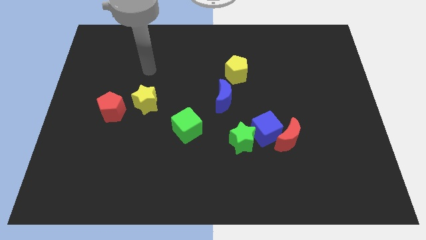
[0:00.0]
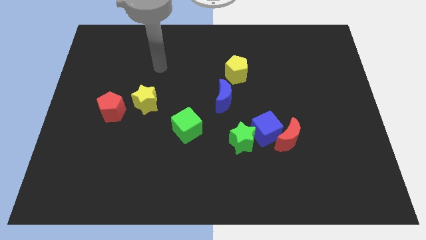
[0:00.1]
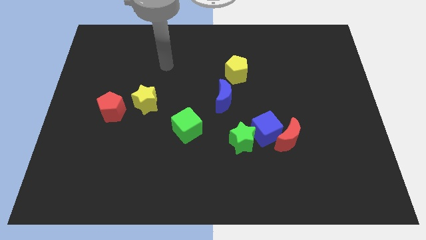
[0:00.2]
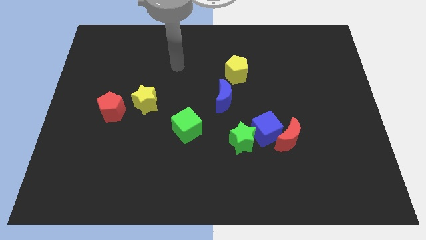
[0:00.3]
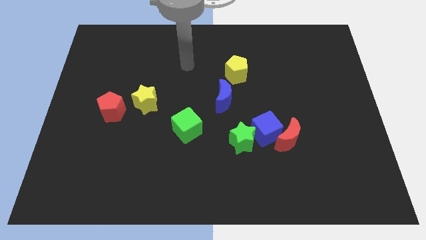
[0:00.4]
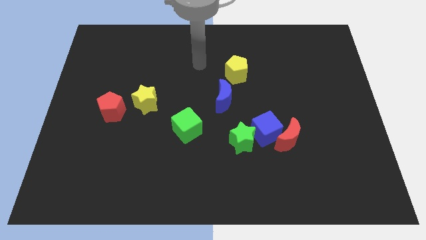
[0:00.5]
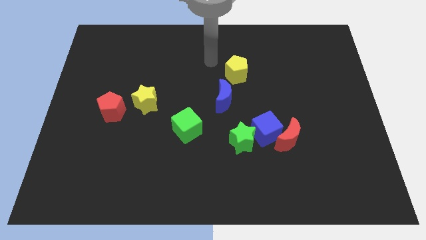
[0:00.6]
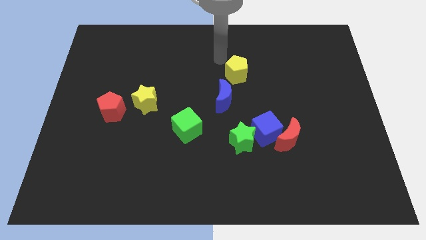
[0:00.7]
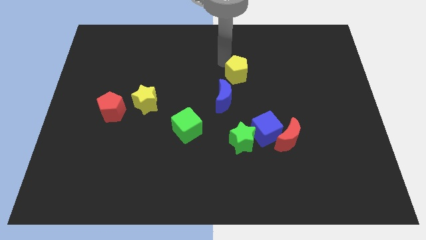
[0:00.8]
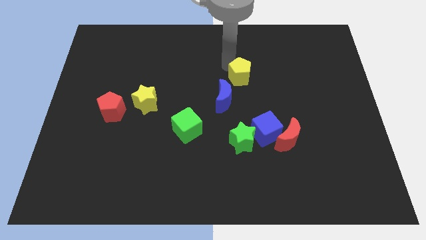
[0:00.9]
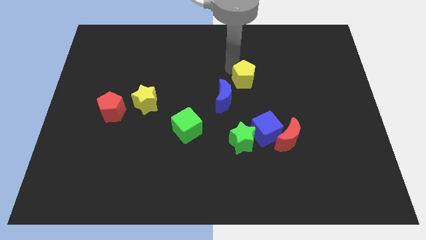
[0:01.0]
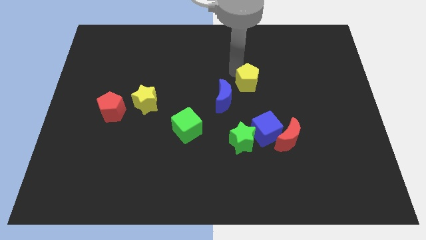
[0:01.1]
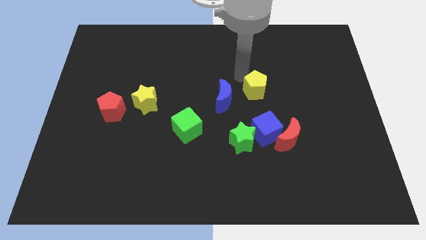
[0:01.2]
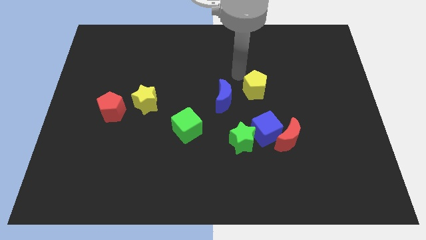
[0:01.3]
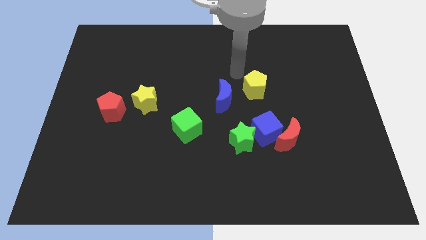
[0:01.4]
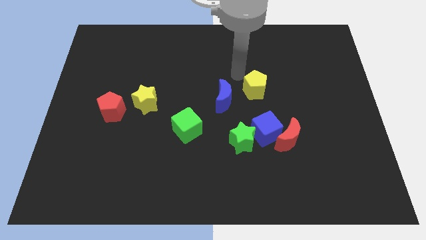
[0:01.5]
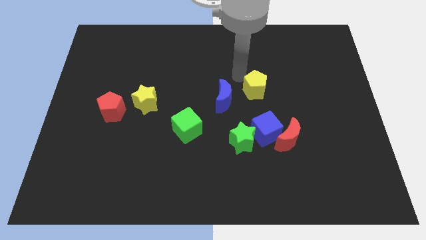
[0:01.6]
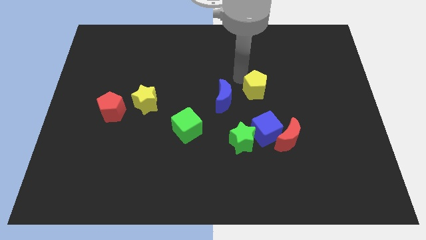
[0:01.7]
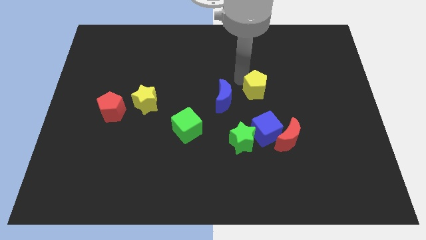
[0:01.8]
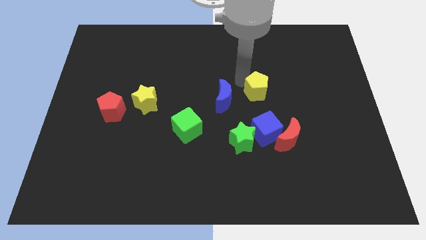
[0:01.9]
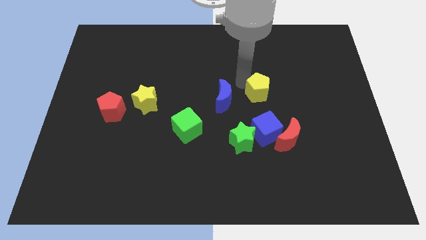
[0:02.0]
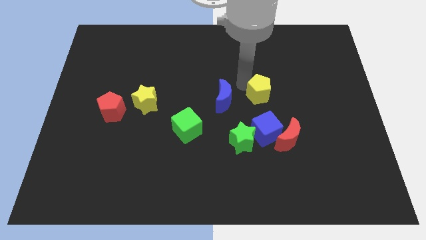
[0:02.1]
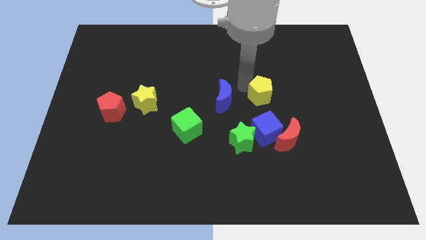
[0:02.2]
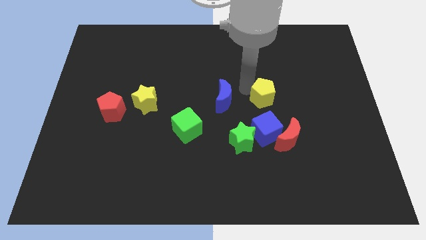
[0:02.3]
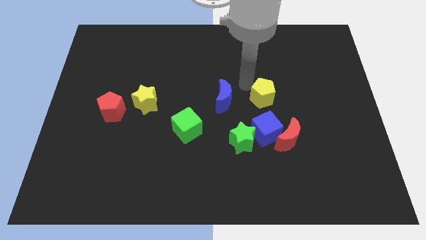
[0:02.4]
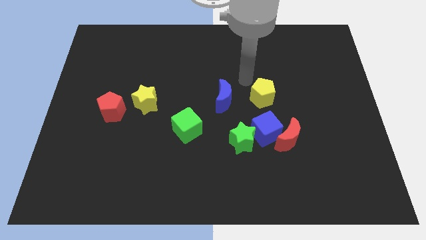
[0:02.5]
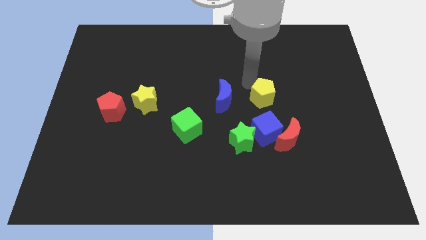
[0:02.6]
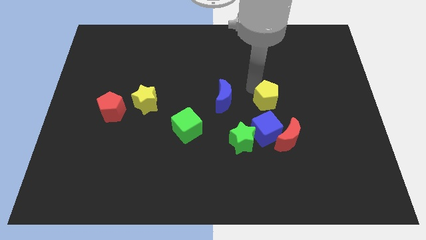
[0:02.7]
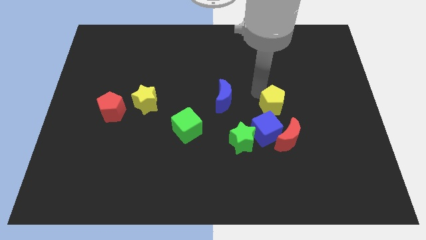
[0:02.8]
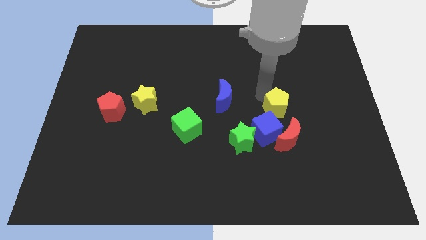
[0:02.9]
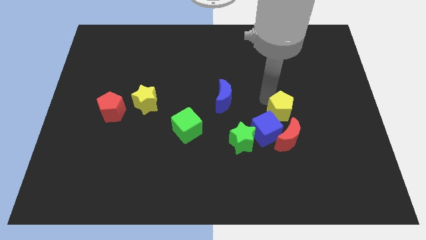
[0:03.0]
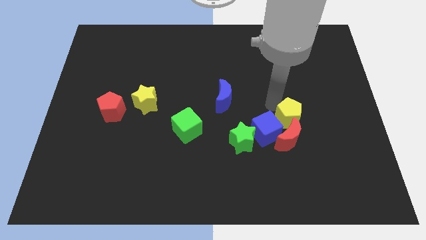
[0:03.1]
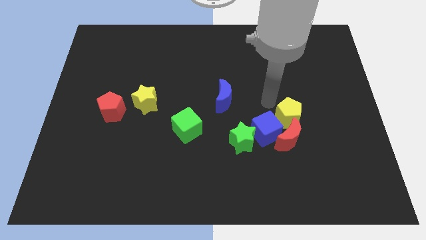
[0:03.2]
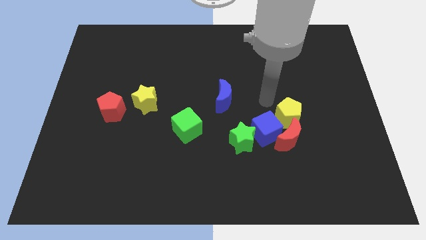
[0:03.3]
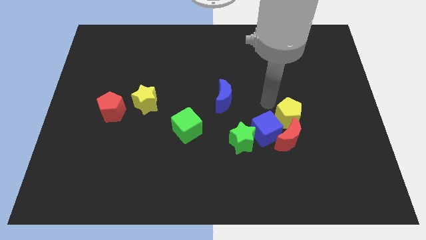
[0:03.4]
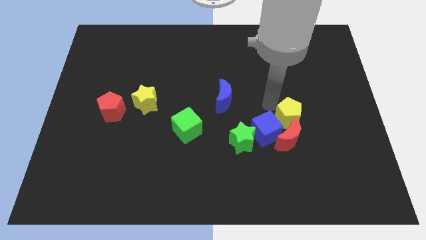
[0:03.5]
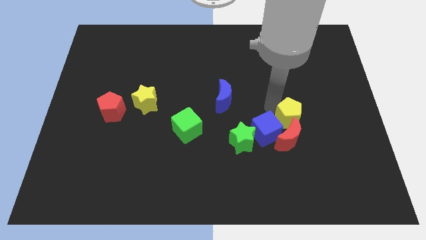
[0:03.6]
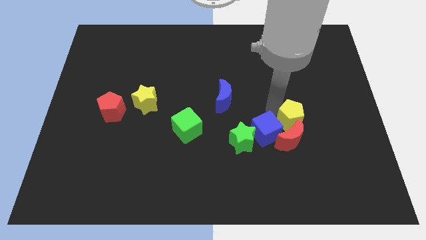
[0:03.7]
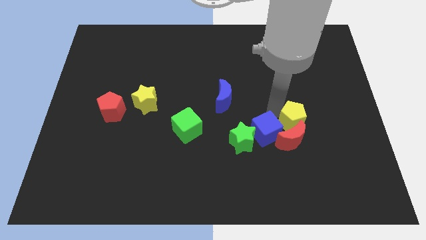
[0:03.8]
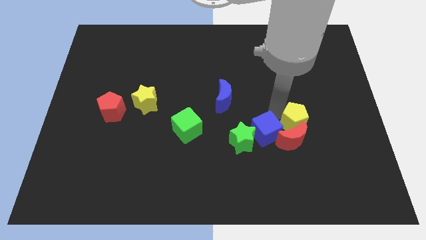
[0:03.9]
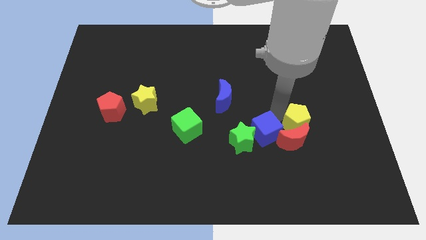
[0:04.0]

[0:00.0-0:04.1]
slide the yellow pentagon down and right diagonally

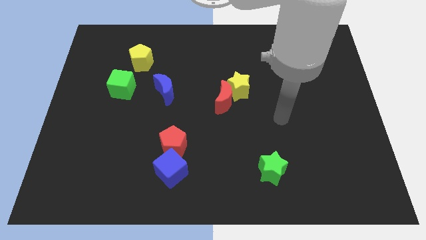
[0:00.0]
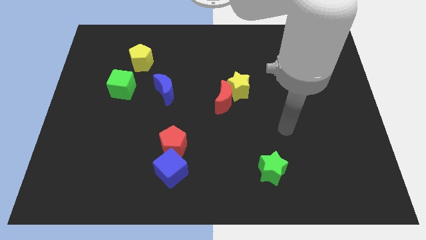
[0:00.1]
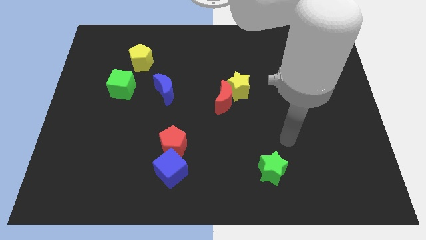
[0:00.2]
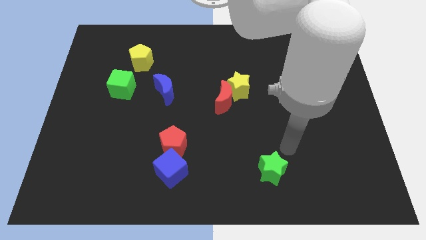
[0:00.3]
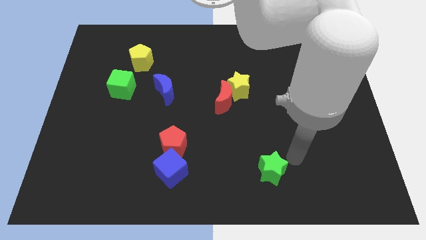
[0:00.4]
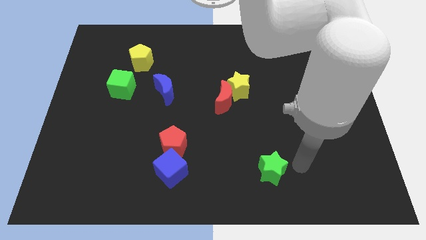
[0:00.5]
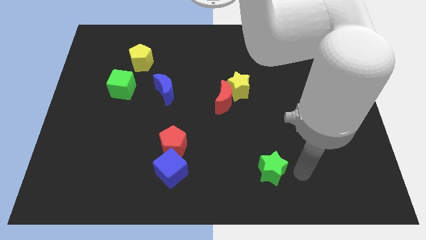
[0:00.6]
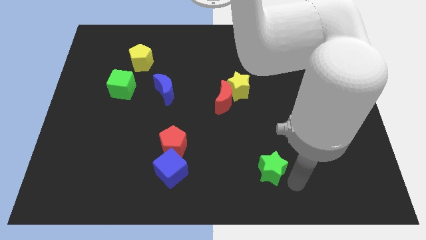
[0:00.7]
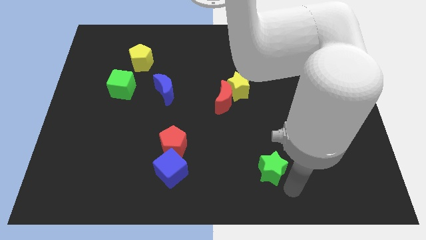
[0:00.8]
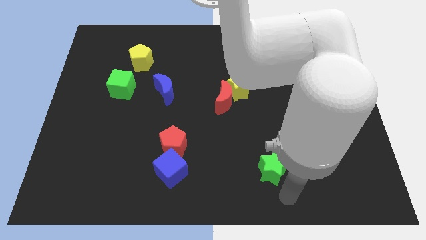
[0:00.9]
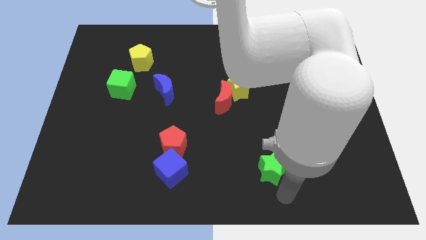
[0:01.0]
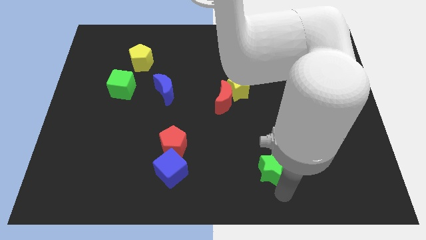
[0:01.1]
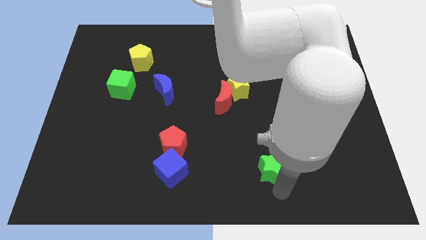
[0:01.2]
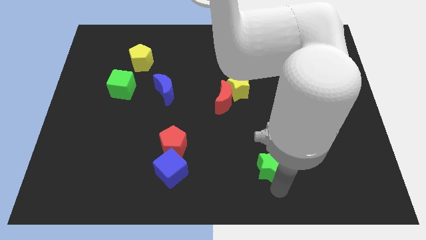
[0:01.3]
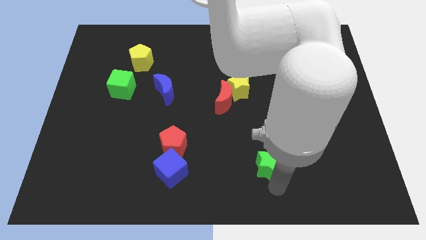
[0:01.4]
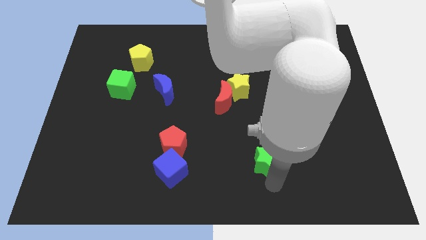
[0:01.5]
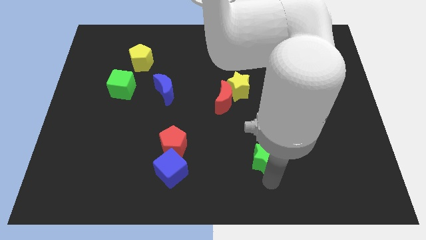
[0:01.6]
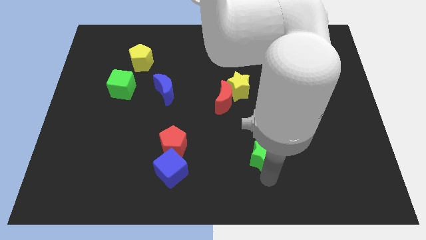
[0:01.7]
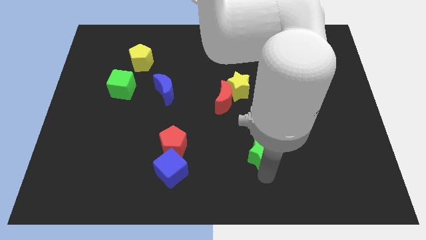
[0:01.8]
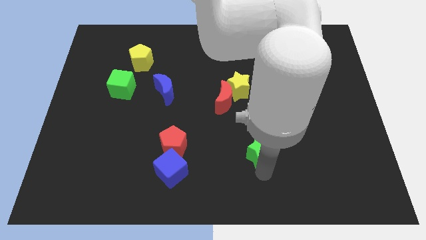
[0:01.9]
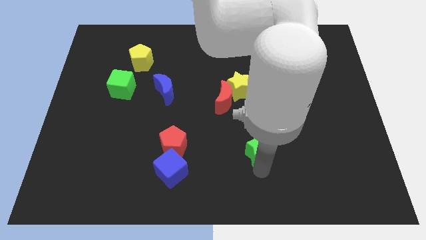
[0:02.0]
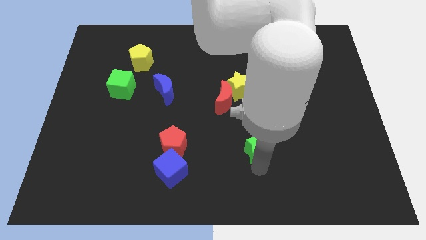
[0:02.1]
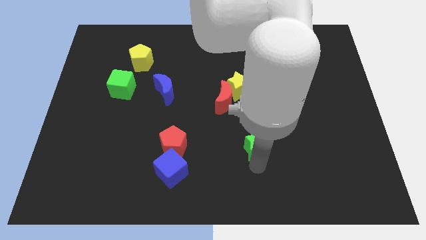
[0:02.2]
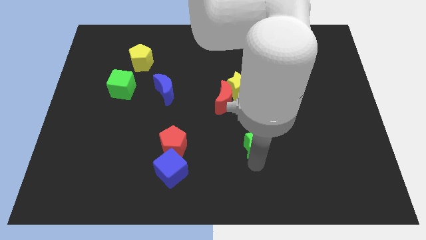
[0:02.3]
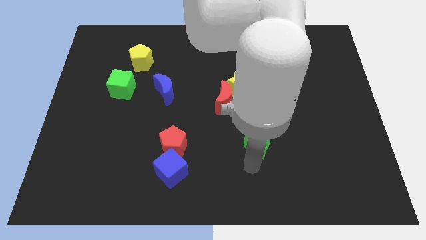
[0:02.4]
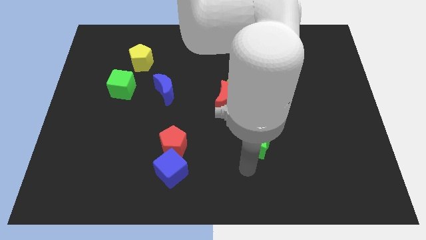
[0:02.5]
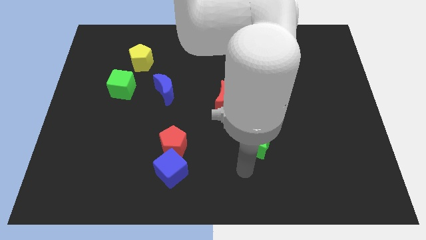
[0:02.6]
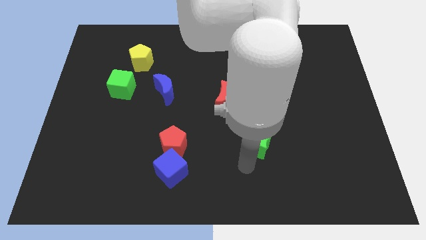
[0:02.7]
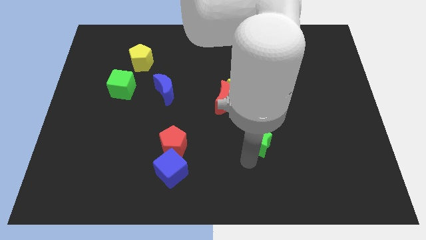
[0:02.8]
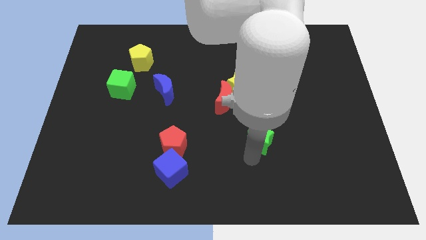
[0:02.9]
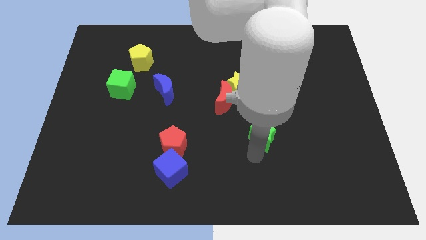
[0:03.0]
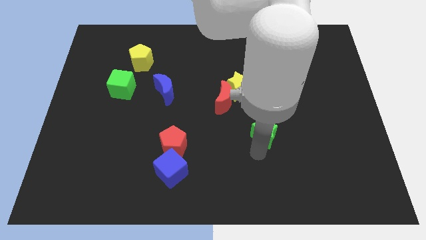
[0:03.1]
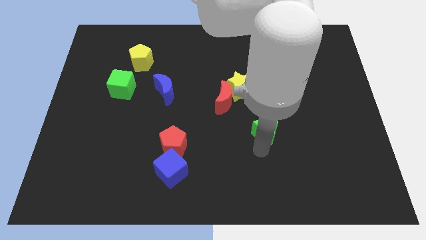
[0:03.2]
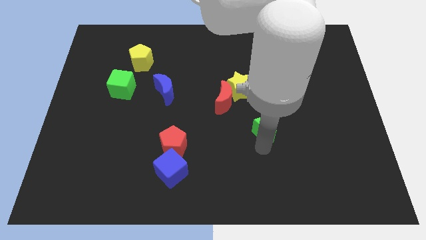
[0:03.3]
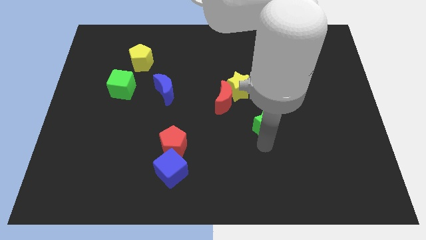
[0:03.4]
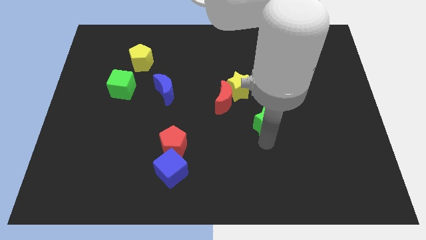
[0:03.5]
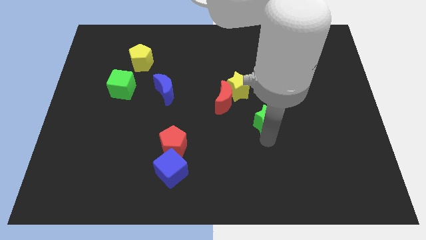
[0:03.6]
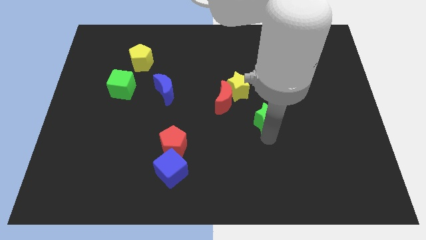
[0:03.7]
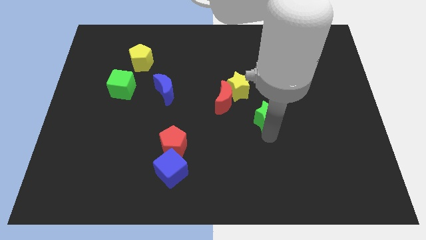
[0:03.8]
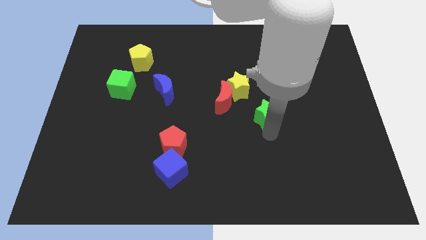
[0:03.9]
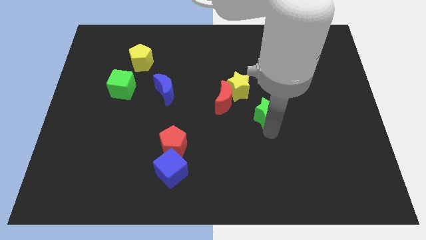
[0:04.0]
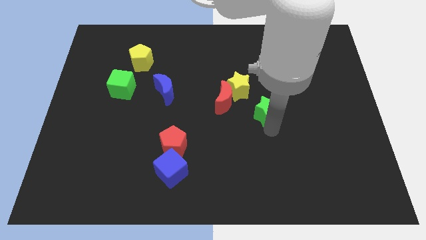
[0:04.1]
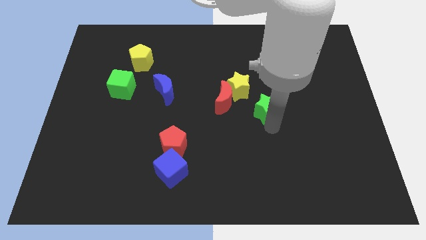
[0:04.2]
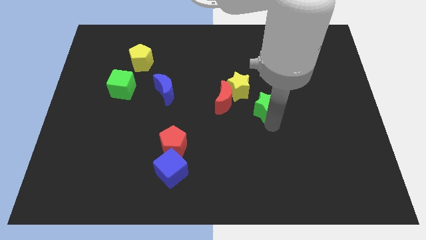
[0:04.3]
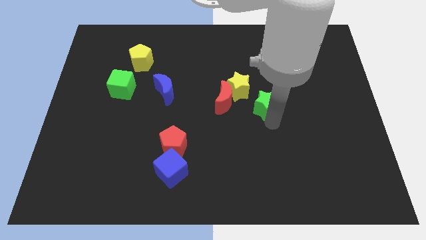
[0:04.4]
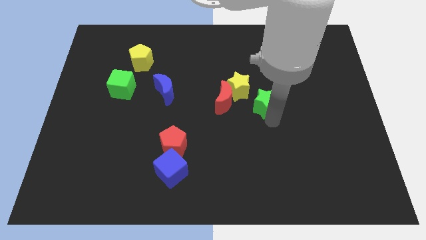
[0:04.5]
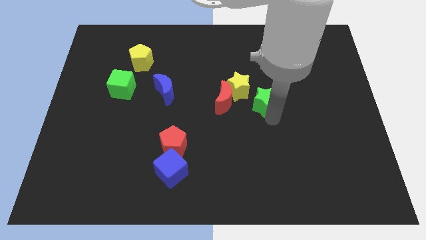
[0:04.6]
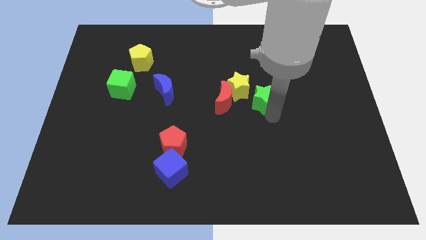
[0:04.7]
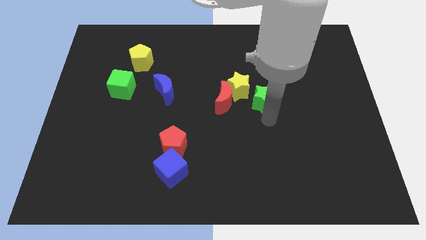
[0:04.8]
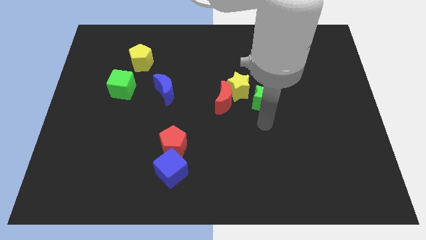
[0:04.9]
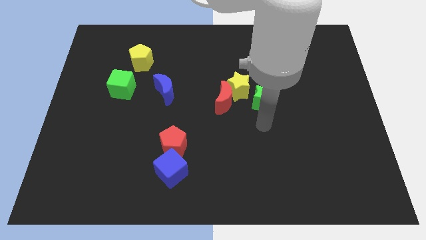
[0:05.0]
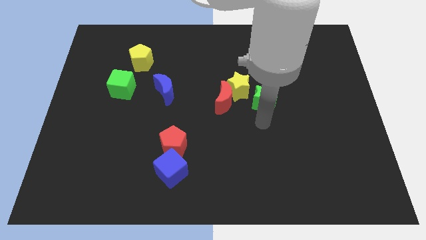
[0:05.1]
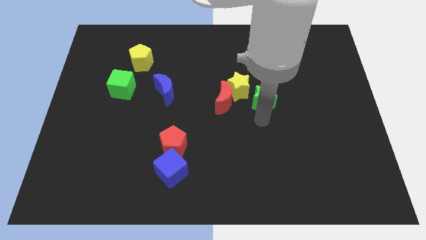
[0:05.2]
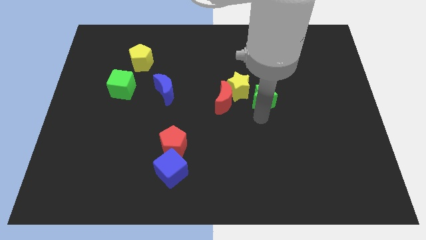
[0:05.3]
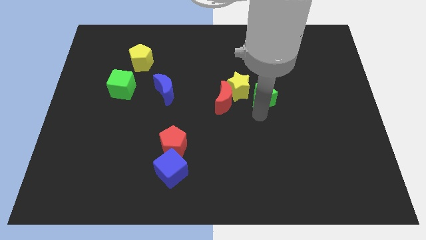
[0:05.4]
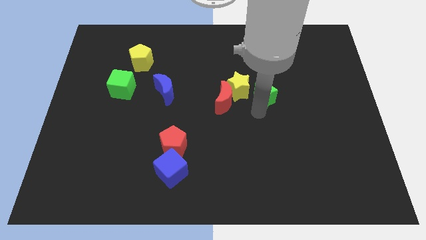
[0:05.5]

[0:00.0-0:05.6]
move the green star upwards
